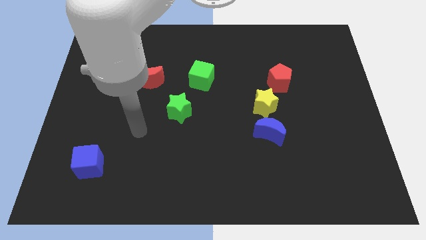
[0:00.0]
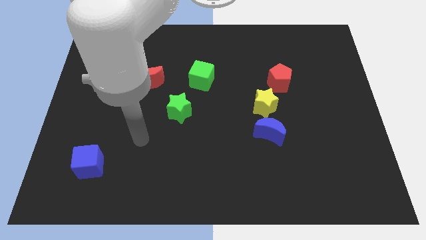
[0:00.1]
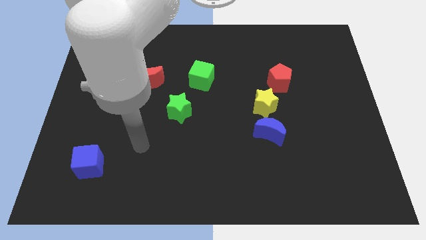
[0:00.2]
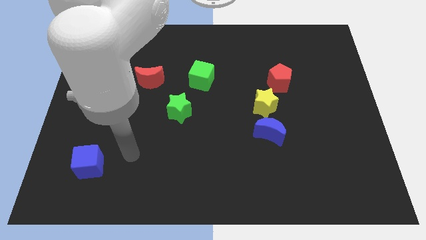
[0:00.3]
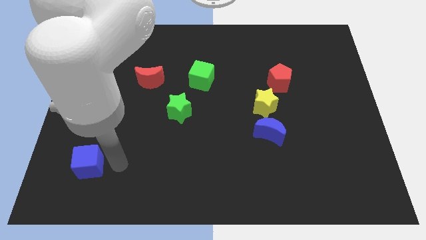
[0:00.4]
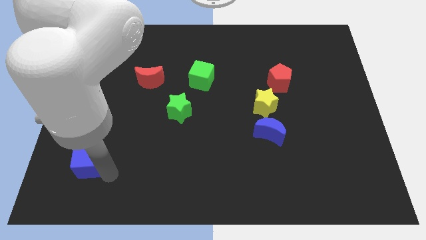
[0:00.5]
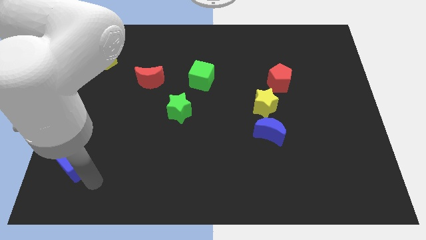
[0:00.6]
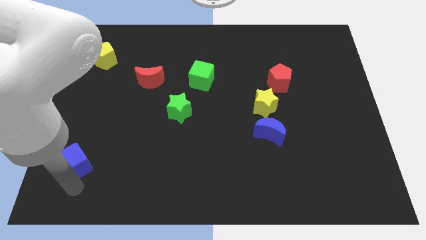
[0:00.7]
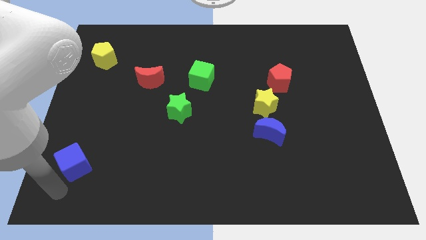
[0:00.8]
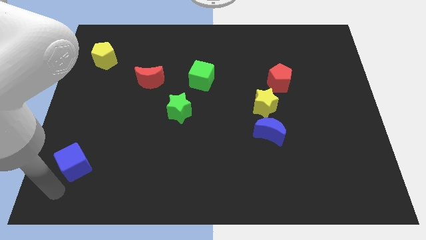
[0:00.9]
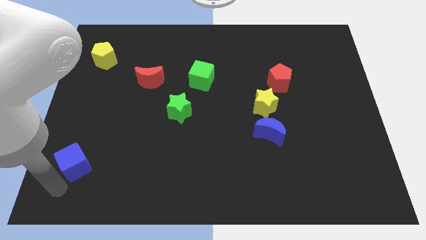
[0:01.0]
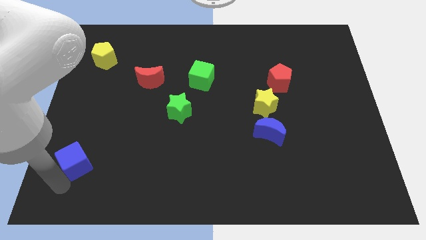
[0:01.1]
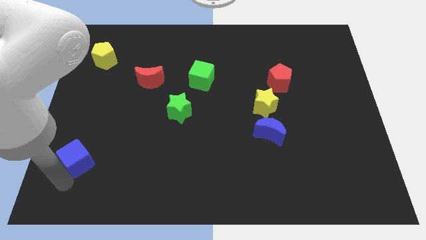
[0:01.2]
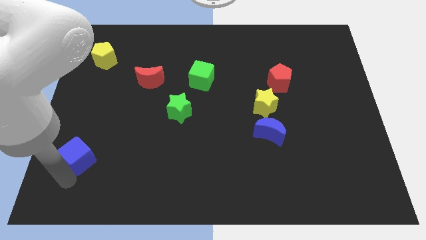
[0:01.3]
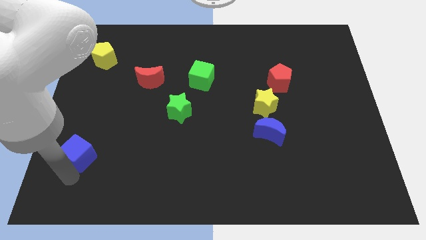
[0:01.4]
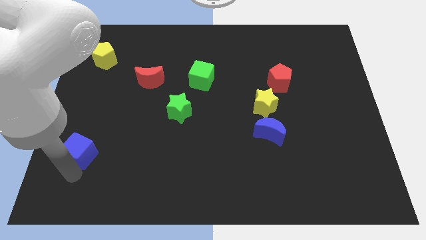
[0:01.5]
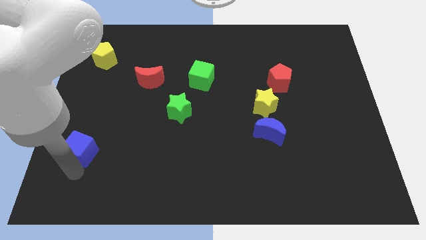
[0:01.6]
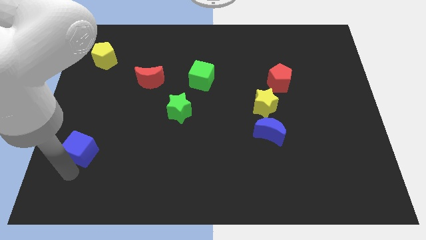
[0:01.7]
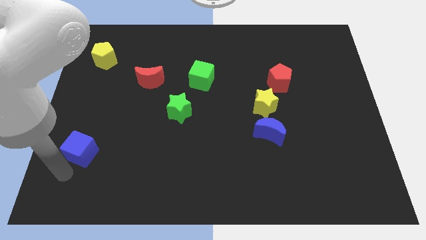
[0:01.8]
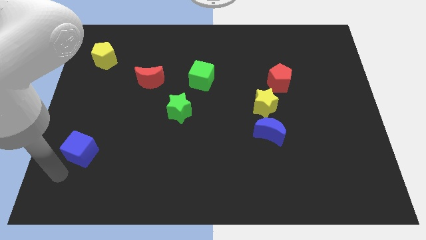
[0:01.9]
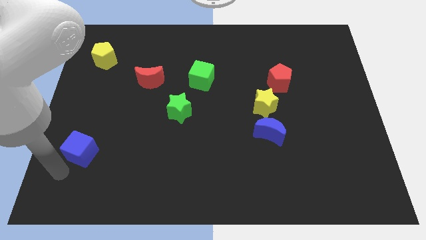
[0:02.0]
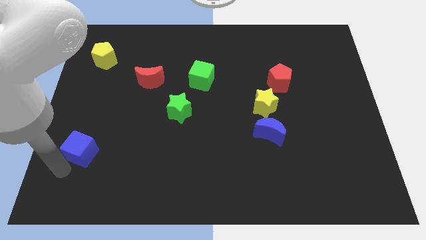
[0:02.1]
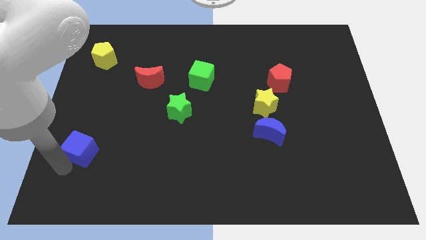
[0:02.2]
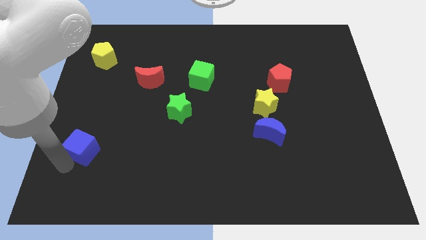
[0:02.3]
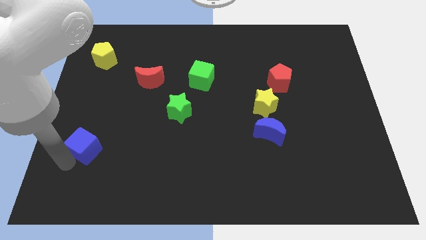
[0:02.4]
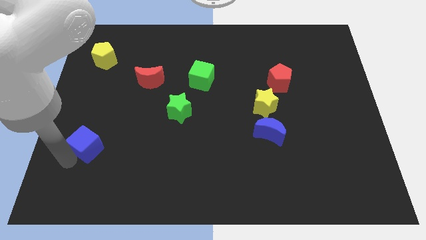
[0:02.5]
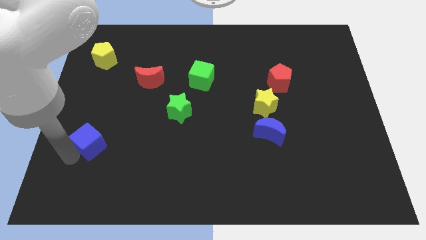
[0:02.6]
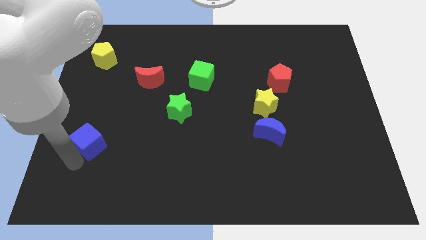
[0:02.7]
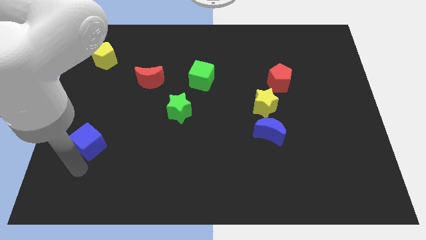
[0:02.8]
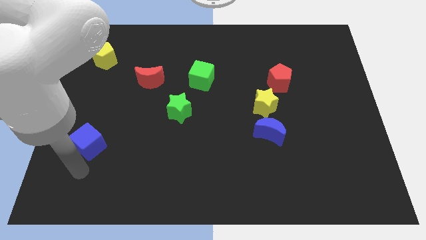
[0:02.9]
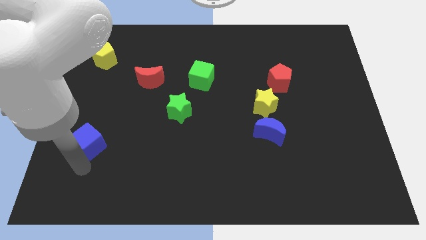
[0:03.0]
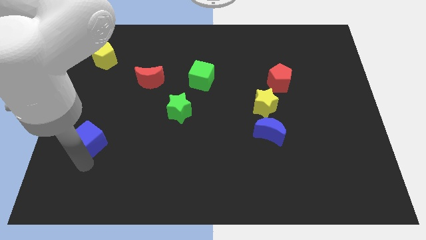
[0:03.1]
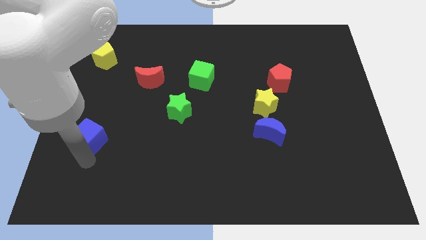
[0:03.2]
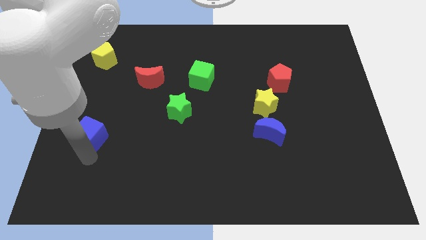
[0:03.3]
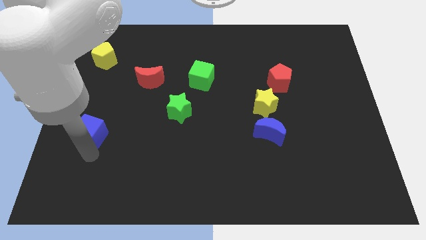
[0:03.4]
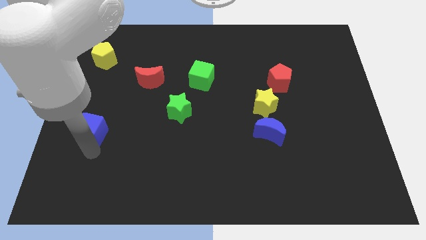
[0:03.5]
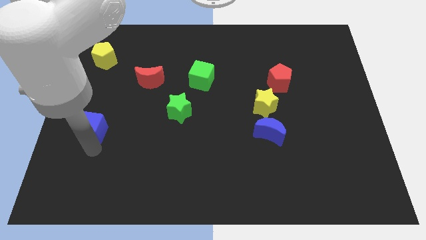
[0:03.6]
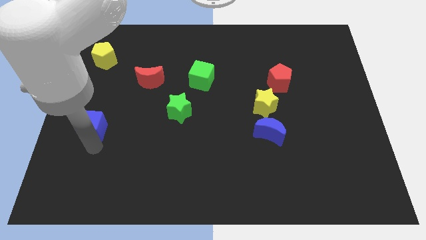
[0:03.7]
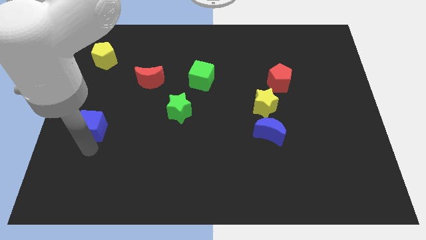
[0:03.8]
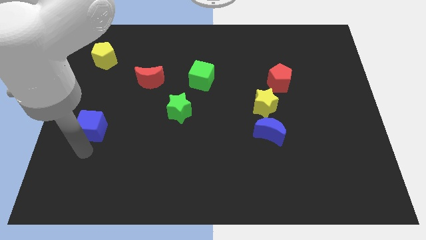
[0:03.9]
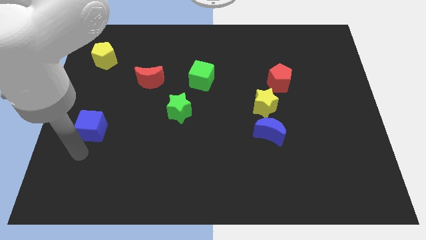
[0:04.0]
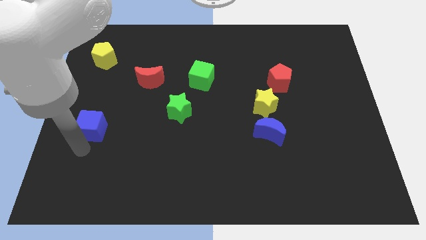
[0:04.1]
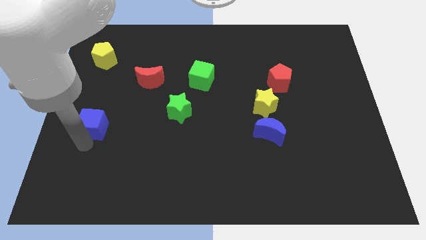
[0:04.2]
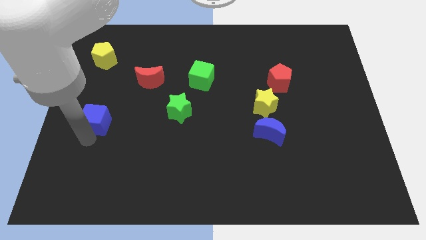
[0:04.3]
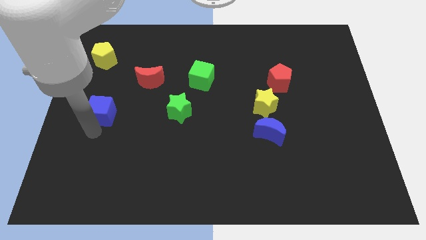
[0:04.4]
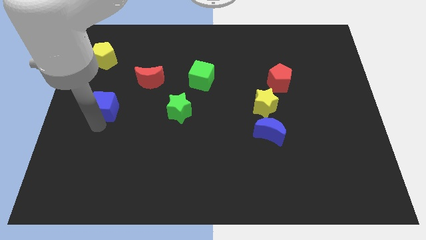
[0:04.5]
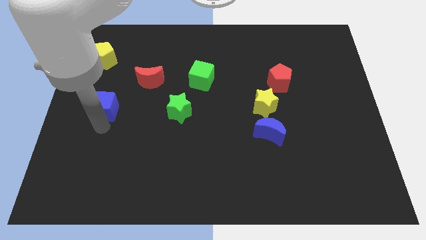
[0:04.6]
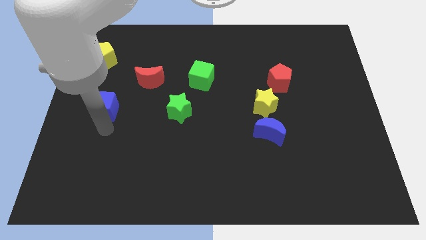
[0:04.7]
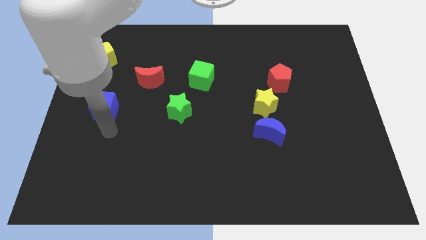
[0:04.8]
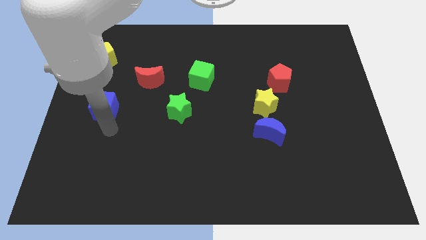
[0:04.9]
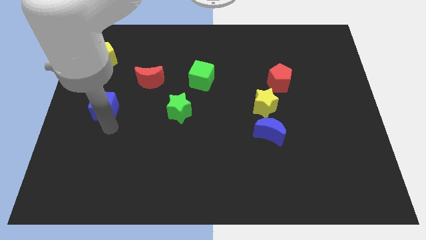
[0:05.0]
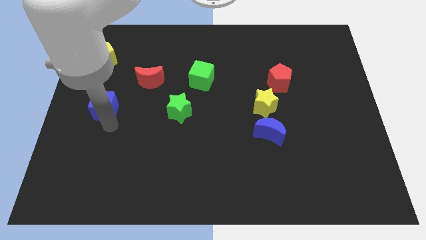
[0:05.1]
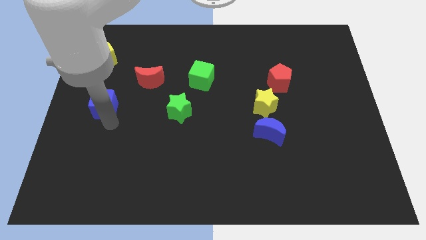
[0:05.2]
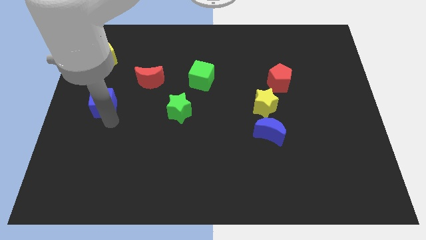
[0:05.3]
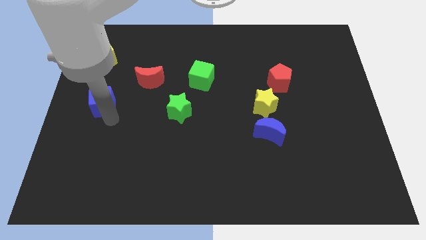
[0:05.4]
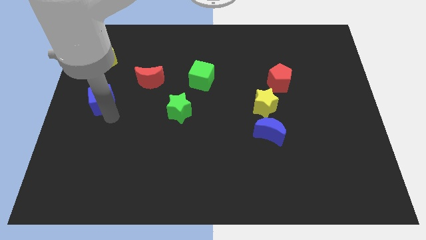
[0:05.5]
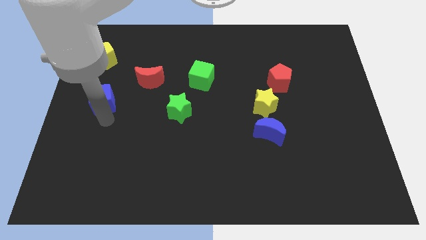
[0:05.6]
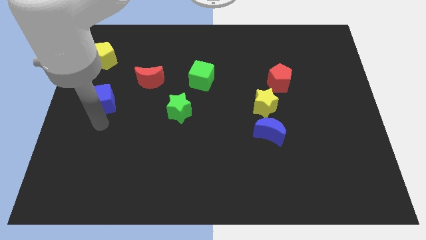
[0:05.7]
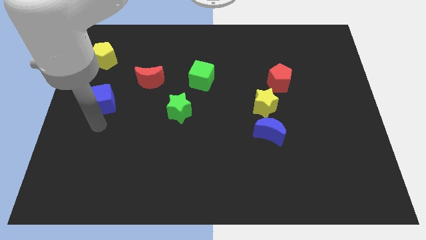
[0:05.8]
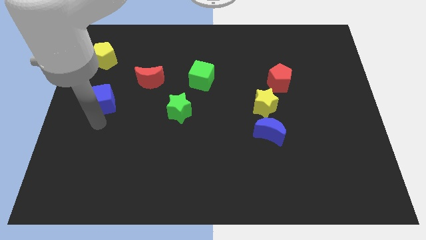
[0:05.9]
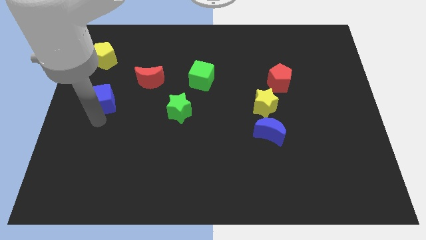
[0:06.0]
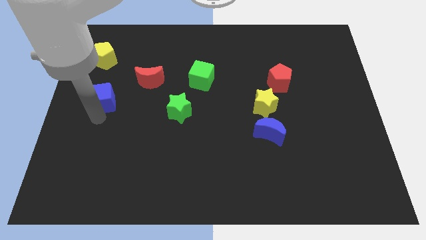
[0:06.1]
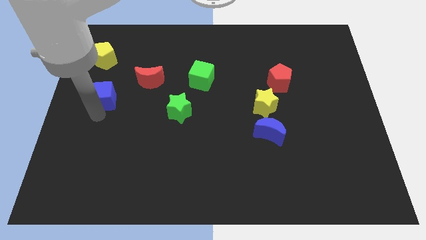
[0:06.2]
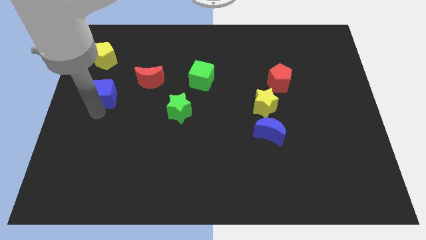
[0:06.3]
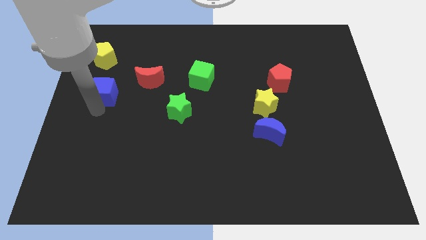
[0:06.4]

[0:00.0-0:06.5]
move the blue cube to the left side of the red moon
